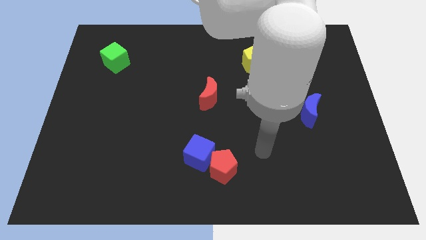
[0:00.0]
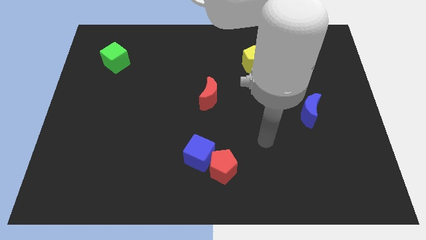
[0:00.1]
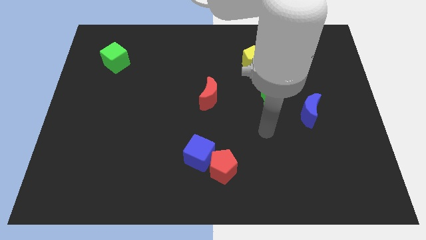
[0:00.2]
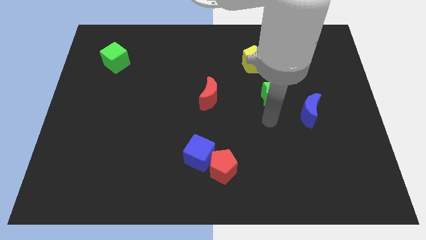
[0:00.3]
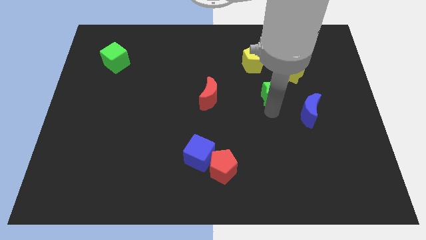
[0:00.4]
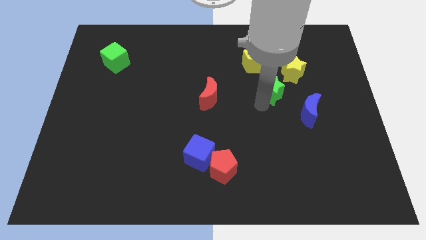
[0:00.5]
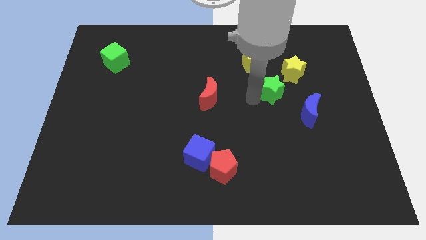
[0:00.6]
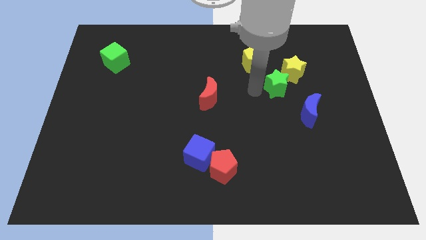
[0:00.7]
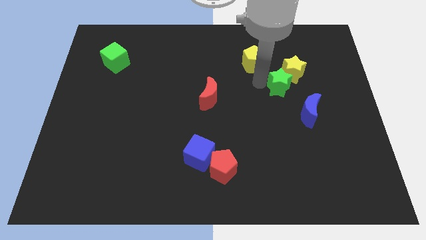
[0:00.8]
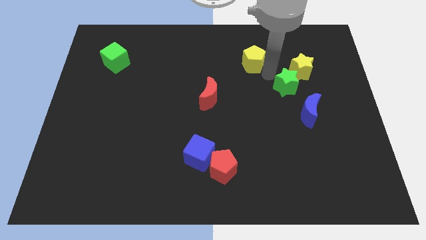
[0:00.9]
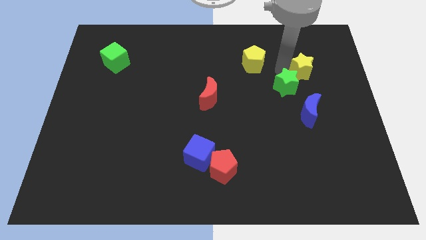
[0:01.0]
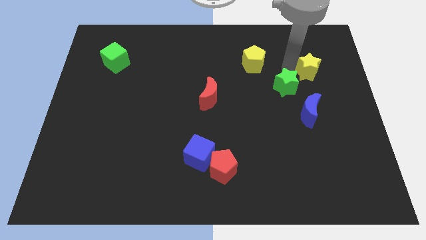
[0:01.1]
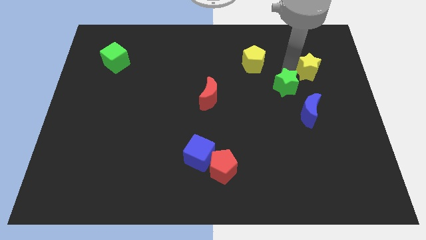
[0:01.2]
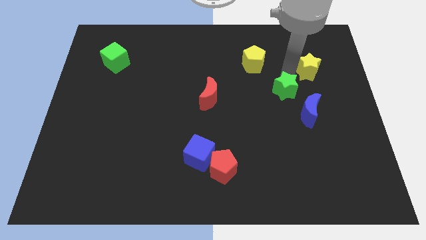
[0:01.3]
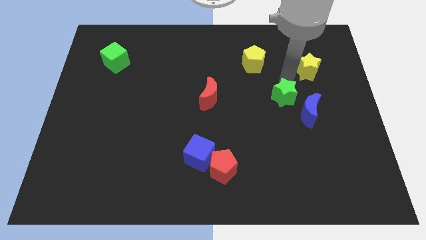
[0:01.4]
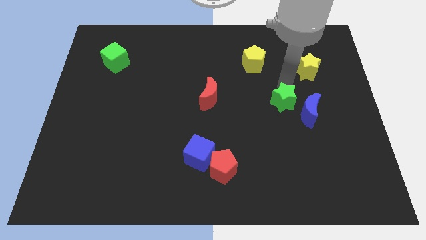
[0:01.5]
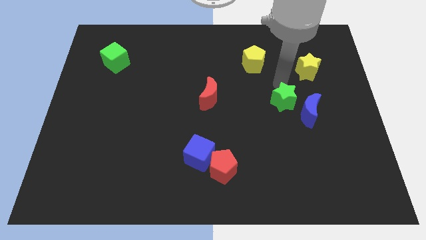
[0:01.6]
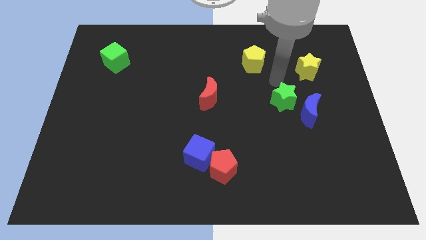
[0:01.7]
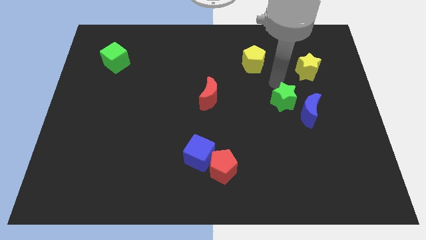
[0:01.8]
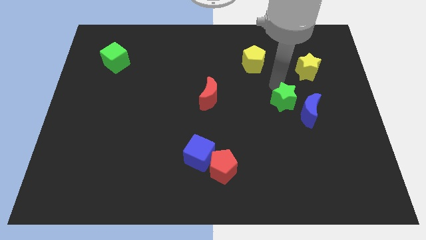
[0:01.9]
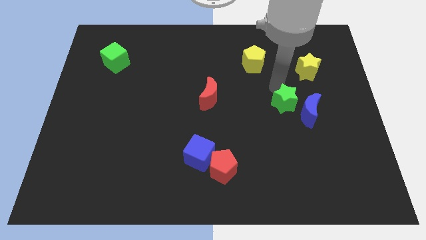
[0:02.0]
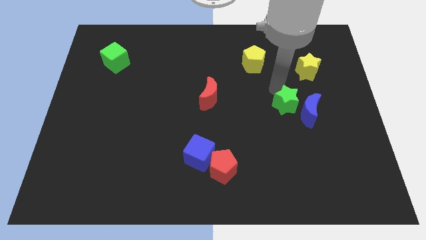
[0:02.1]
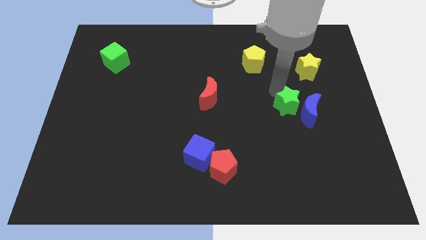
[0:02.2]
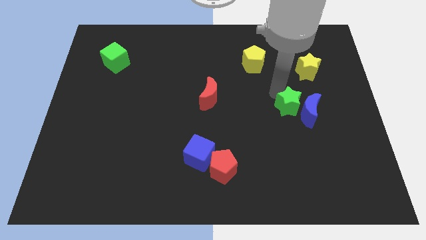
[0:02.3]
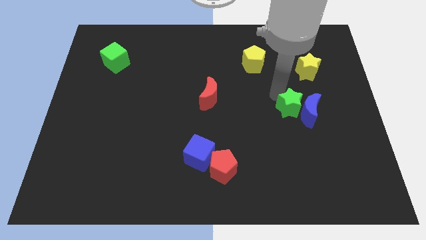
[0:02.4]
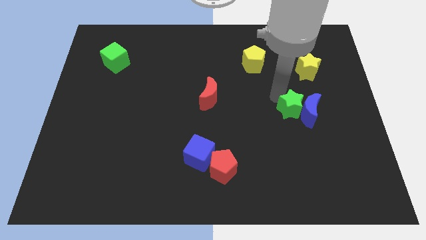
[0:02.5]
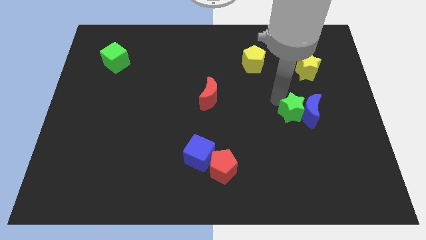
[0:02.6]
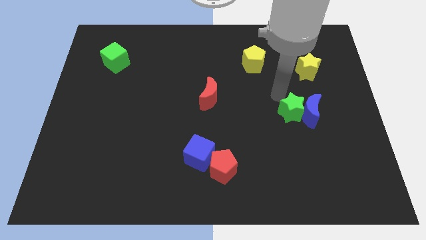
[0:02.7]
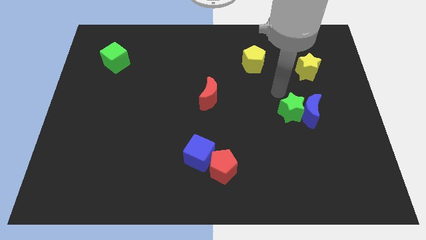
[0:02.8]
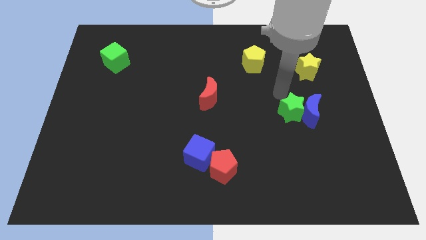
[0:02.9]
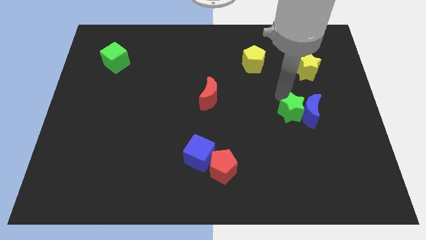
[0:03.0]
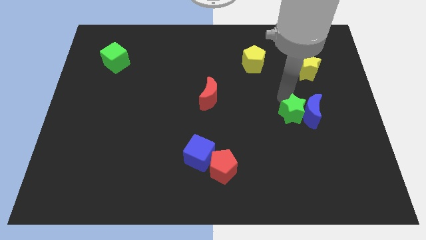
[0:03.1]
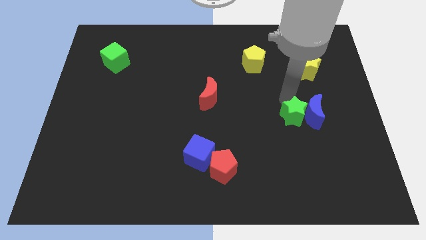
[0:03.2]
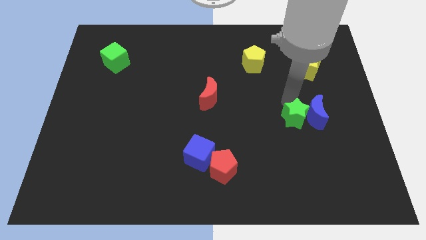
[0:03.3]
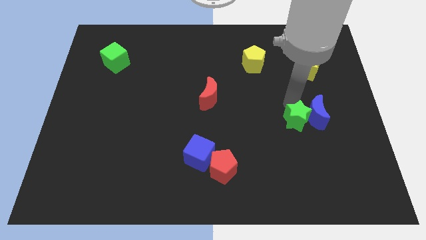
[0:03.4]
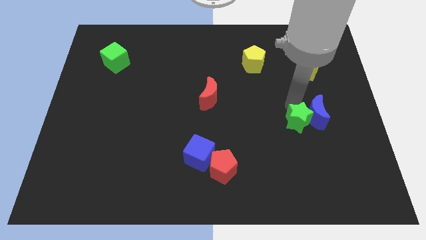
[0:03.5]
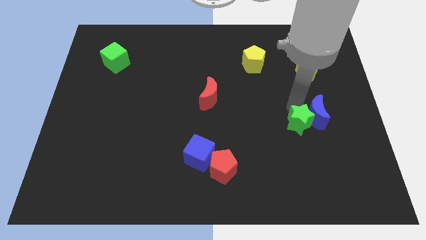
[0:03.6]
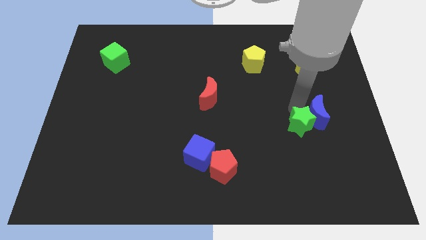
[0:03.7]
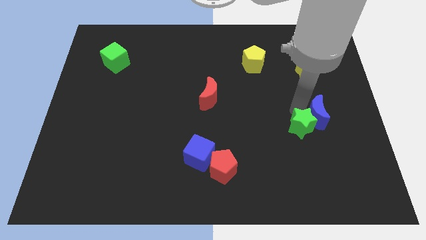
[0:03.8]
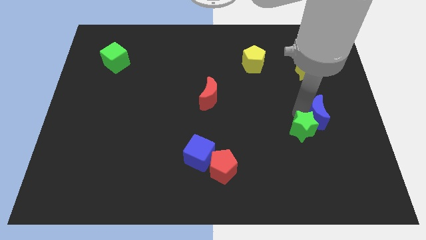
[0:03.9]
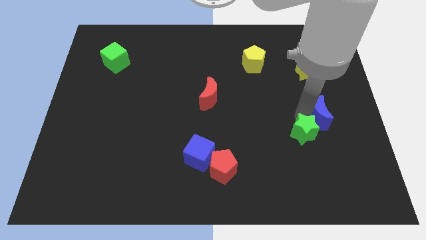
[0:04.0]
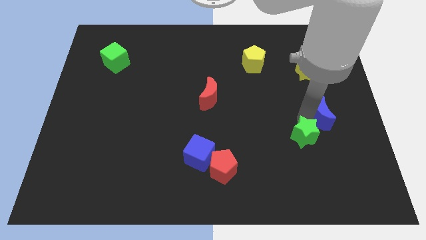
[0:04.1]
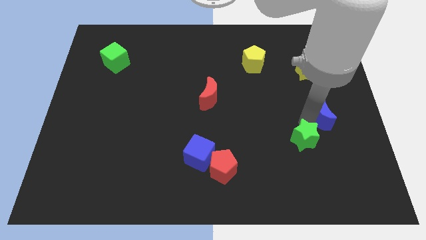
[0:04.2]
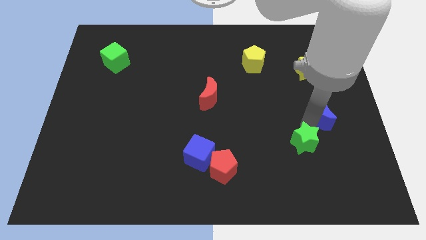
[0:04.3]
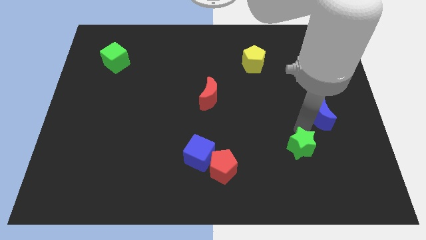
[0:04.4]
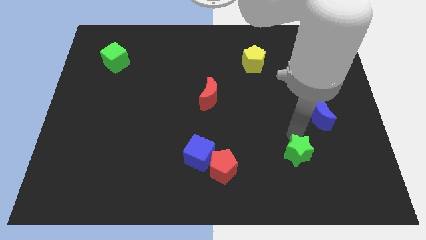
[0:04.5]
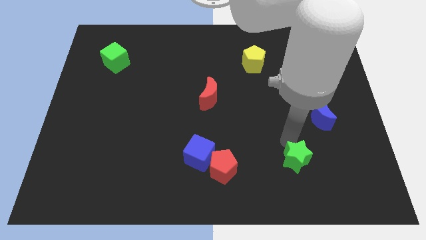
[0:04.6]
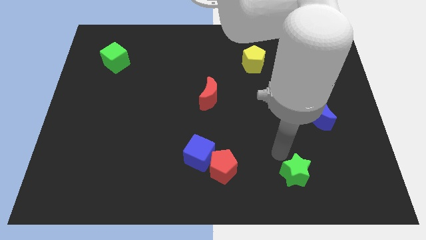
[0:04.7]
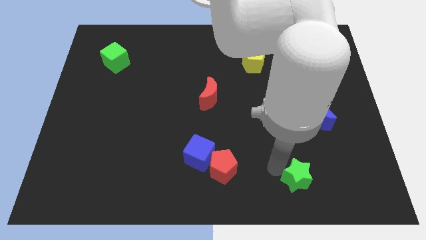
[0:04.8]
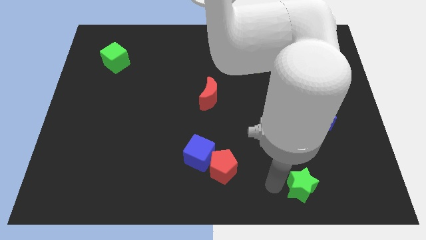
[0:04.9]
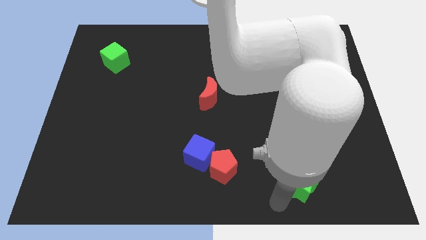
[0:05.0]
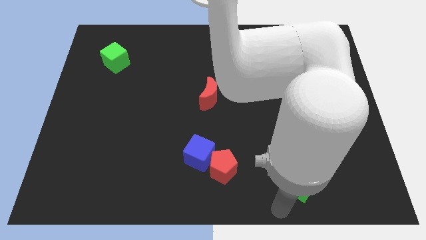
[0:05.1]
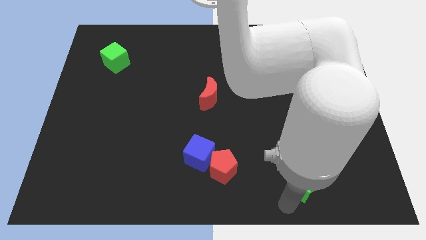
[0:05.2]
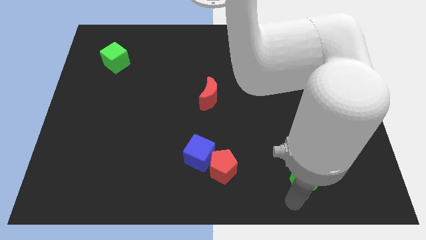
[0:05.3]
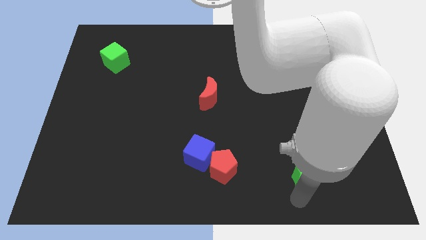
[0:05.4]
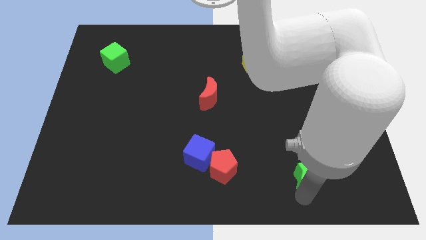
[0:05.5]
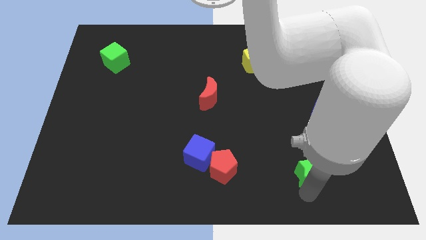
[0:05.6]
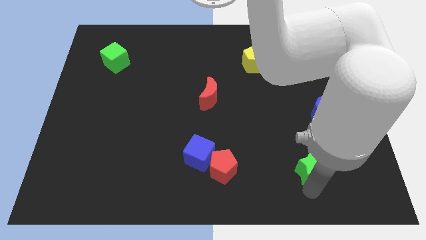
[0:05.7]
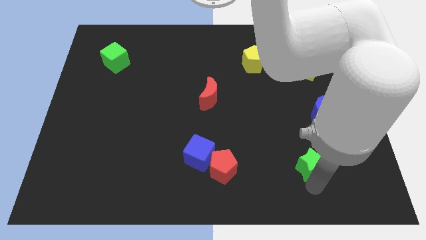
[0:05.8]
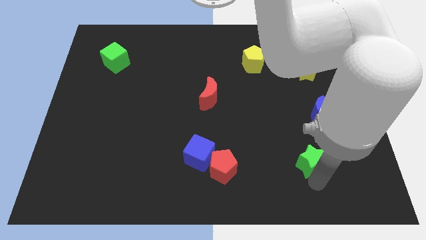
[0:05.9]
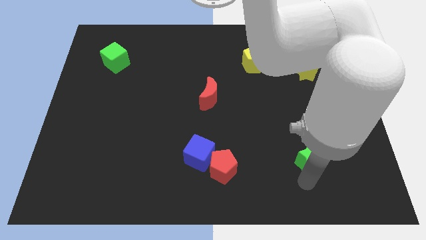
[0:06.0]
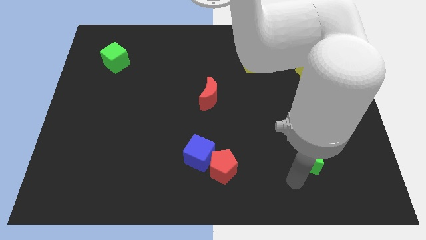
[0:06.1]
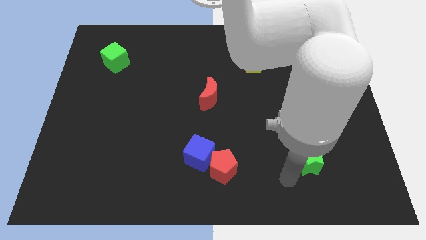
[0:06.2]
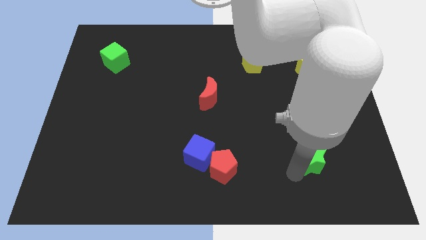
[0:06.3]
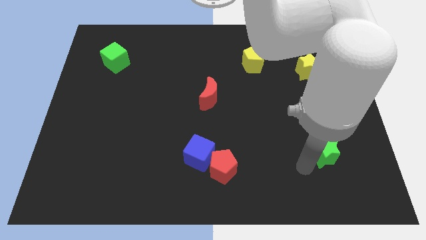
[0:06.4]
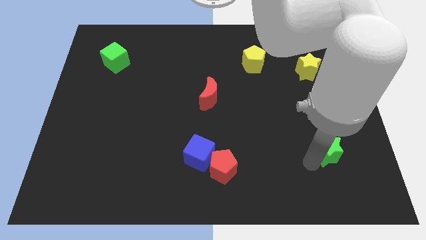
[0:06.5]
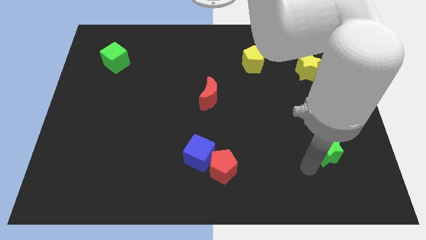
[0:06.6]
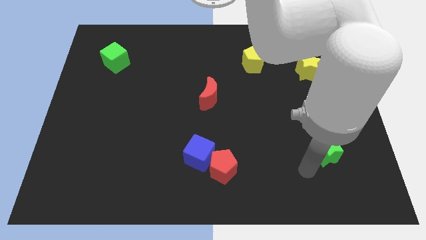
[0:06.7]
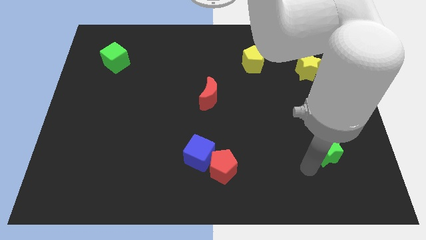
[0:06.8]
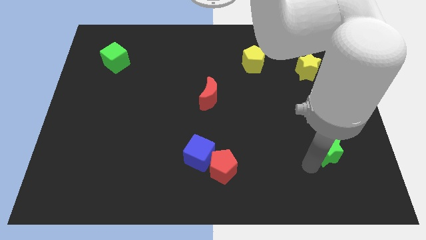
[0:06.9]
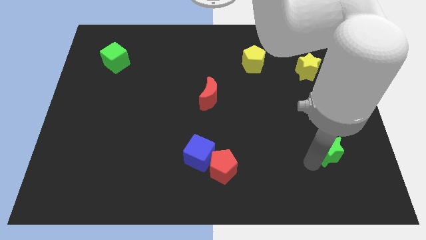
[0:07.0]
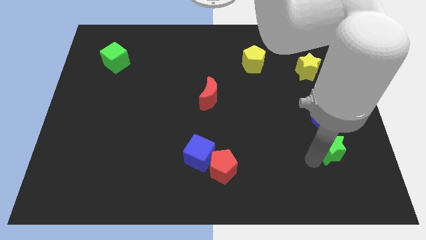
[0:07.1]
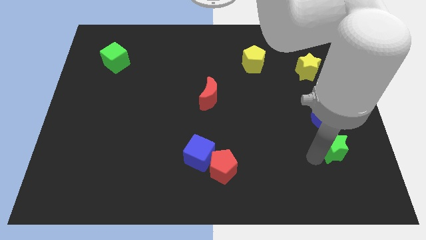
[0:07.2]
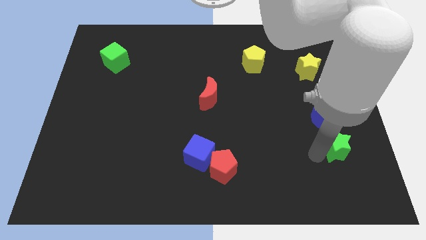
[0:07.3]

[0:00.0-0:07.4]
move the green star to the bottom right side of the blue moon
